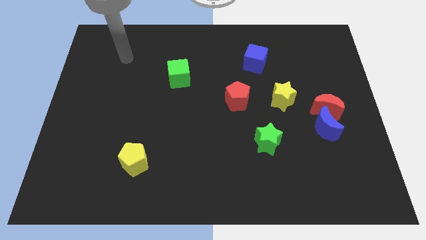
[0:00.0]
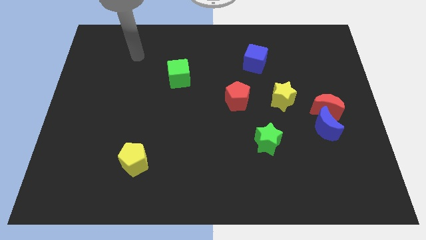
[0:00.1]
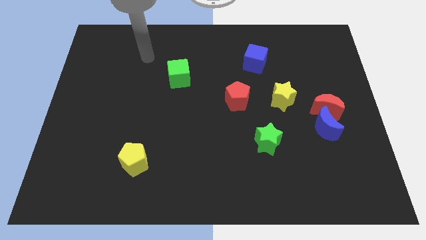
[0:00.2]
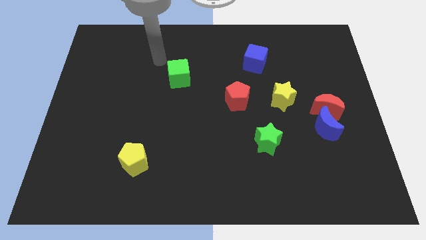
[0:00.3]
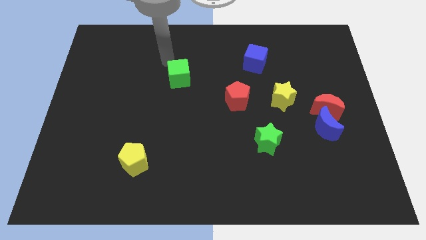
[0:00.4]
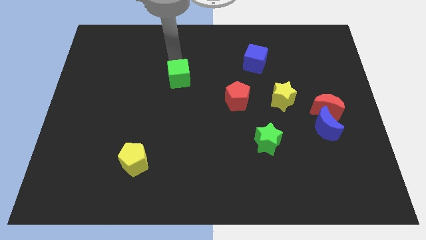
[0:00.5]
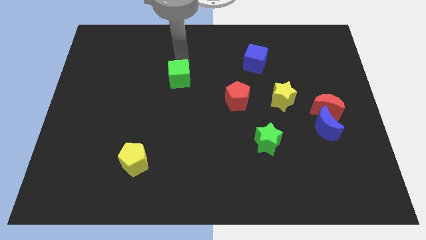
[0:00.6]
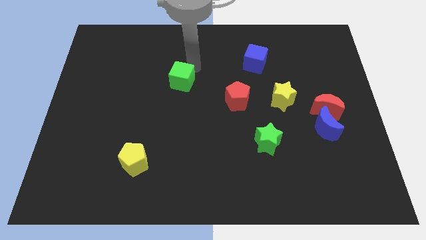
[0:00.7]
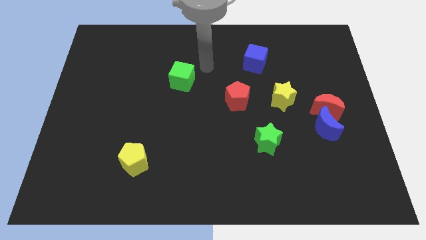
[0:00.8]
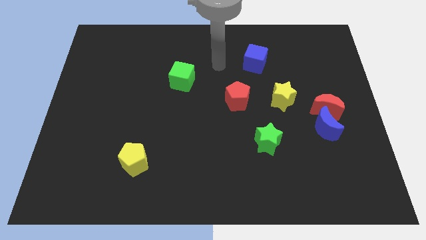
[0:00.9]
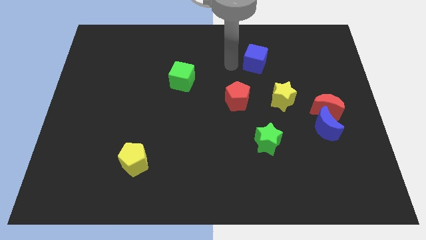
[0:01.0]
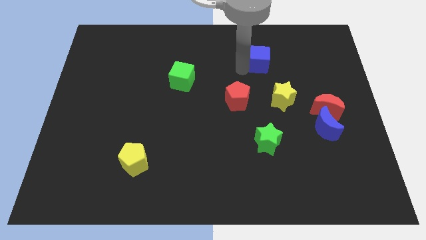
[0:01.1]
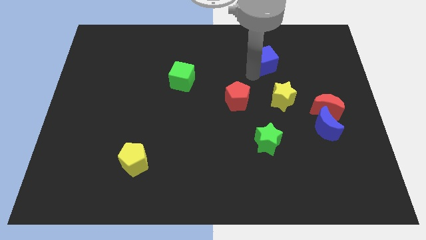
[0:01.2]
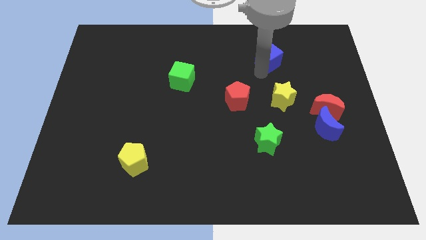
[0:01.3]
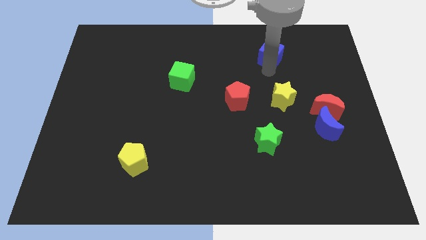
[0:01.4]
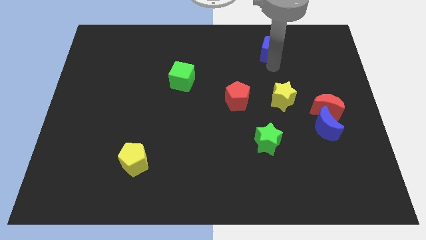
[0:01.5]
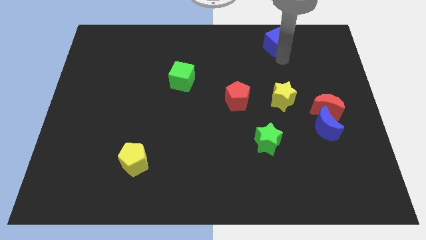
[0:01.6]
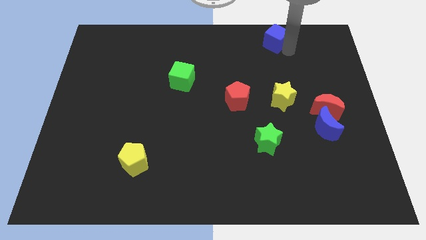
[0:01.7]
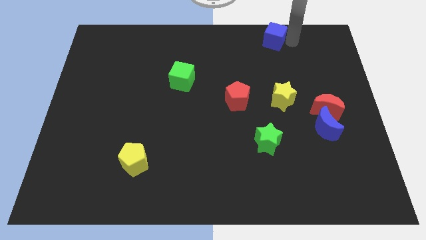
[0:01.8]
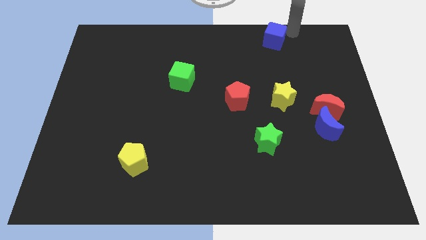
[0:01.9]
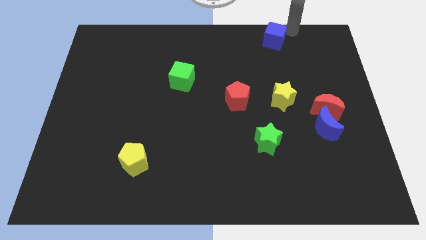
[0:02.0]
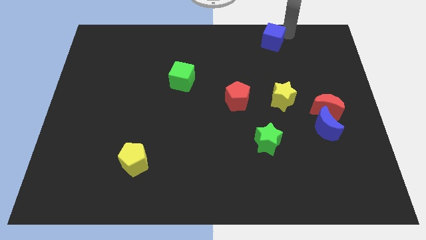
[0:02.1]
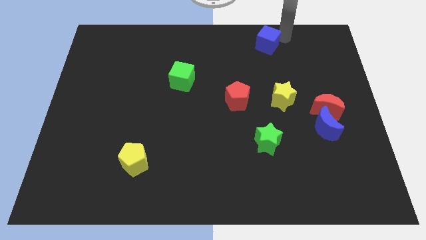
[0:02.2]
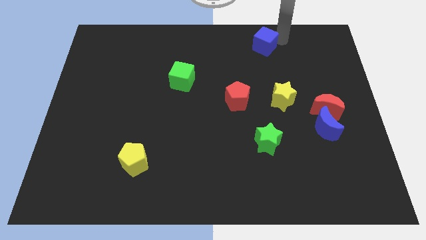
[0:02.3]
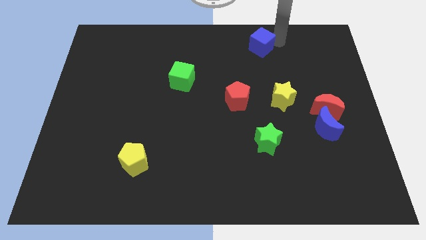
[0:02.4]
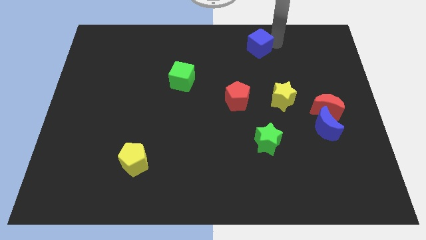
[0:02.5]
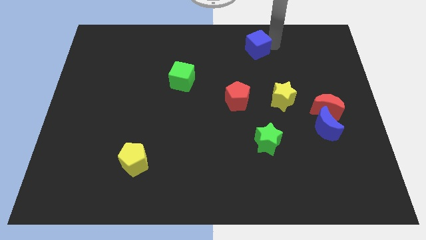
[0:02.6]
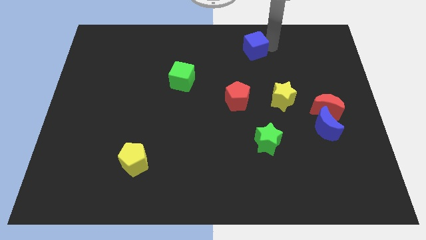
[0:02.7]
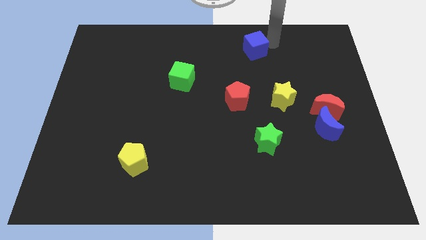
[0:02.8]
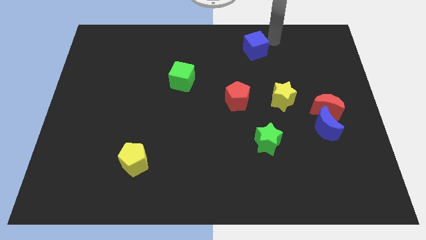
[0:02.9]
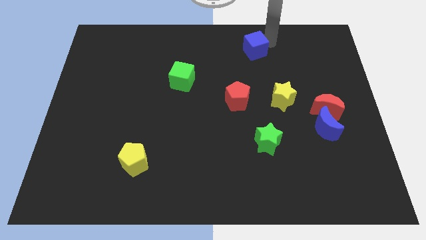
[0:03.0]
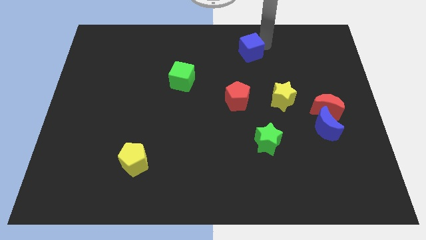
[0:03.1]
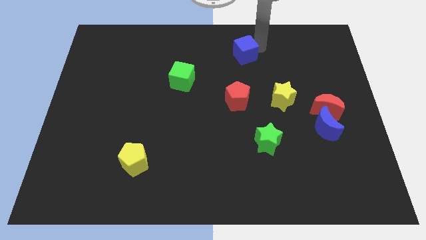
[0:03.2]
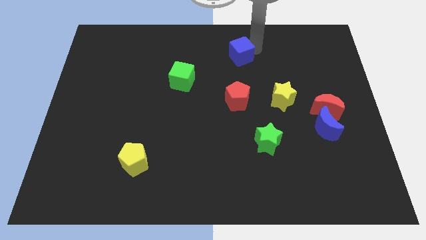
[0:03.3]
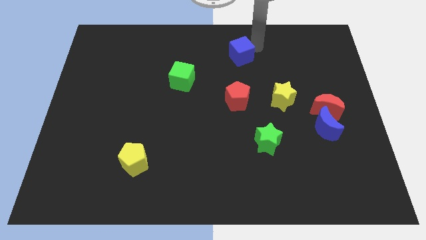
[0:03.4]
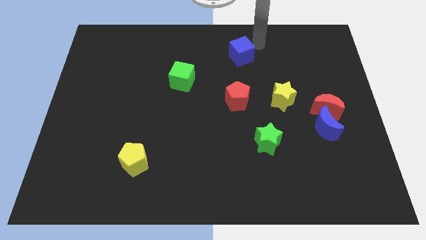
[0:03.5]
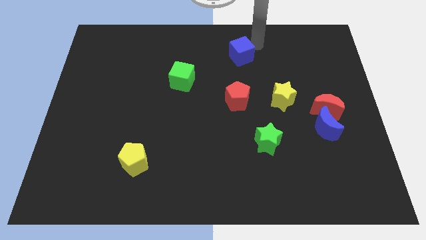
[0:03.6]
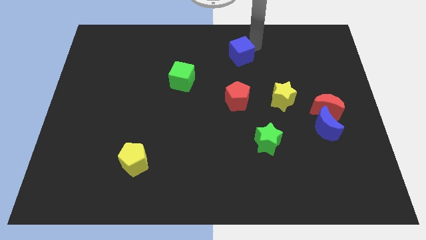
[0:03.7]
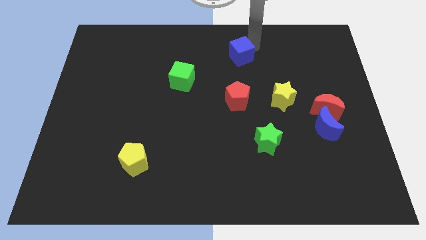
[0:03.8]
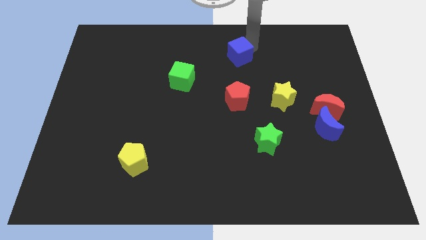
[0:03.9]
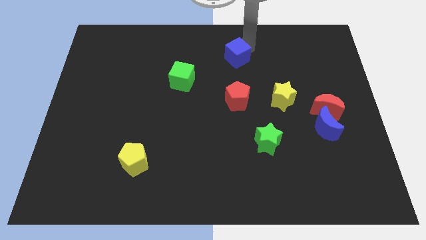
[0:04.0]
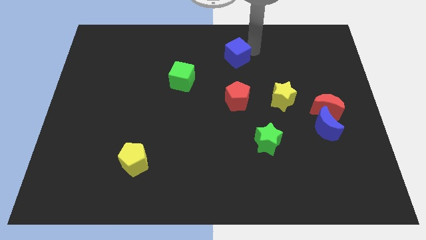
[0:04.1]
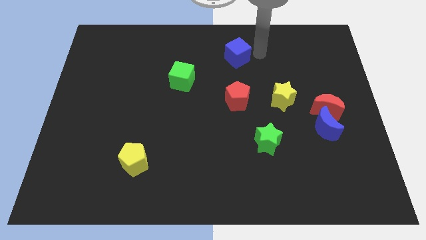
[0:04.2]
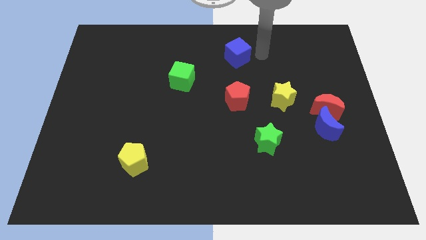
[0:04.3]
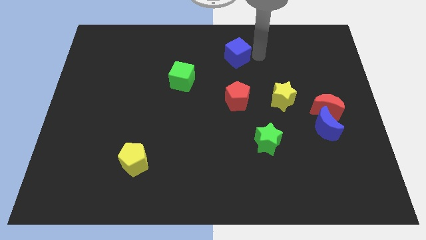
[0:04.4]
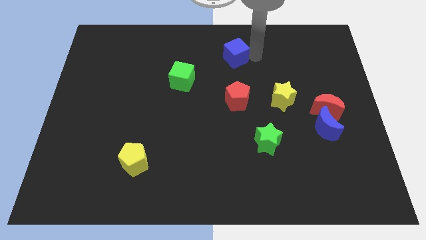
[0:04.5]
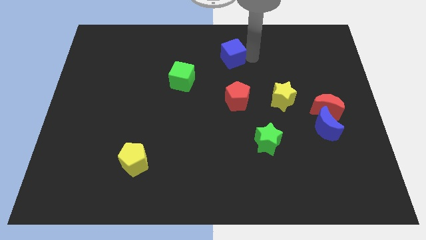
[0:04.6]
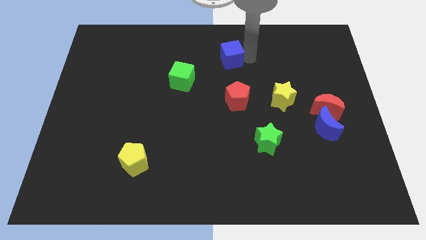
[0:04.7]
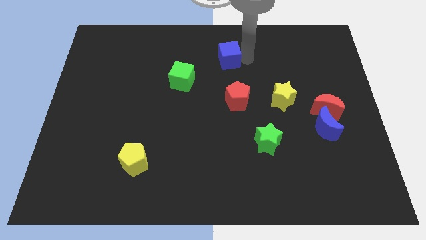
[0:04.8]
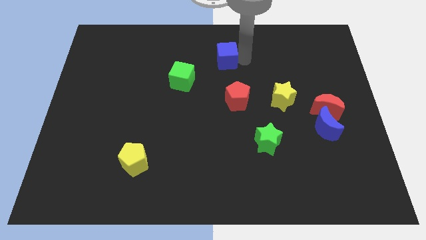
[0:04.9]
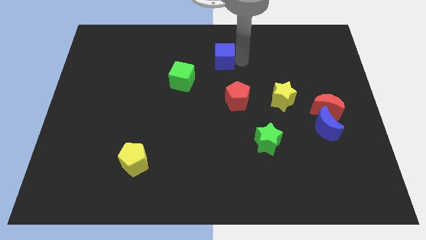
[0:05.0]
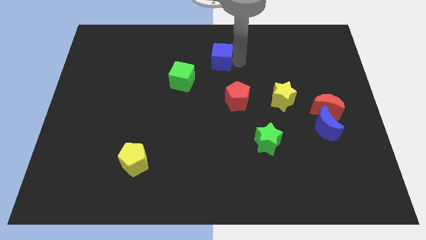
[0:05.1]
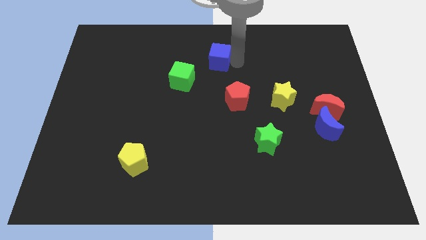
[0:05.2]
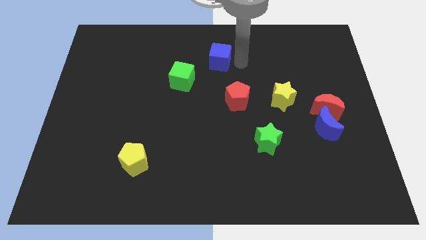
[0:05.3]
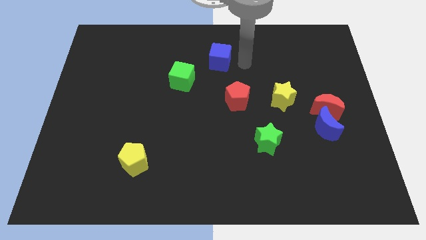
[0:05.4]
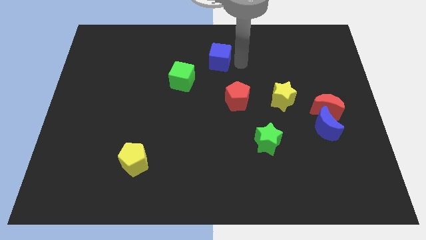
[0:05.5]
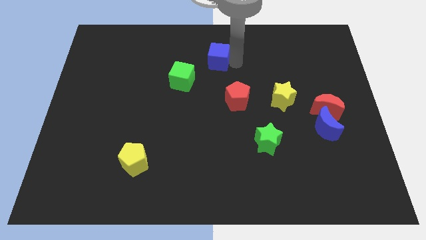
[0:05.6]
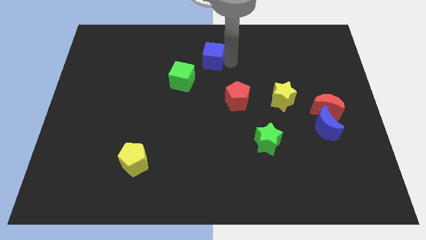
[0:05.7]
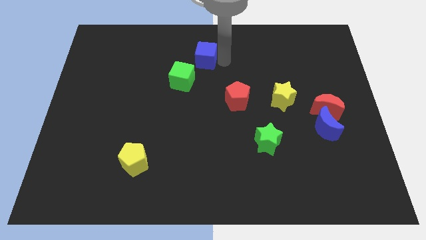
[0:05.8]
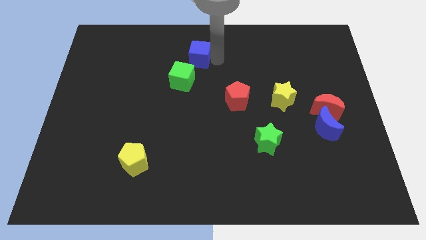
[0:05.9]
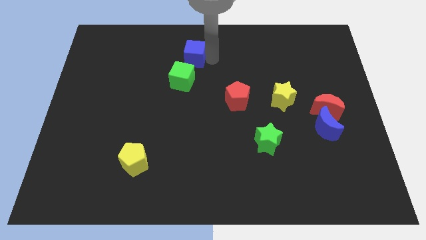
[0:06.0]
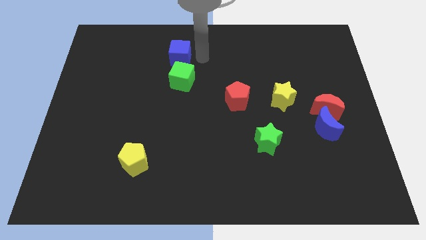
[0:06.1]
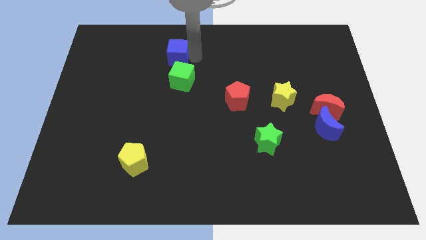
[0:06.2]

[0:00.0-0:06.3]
slide the blue cube to the left

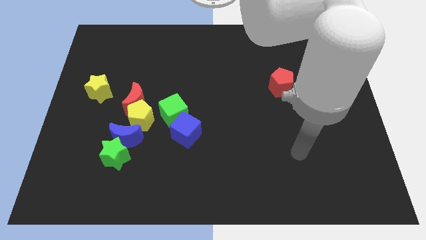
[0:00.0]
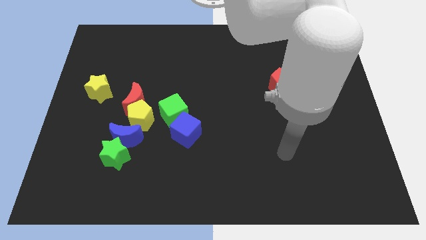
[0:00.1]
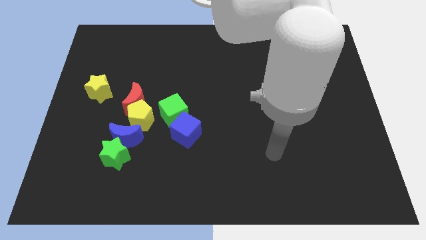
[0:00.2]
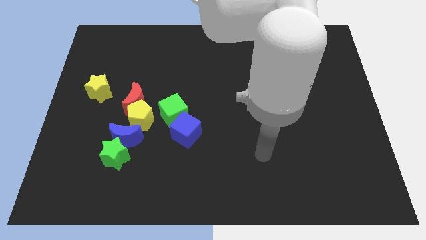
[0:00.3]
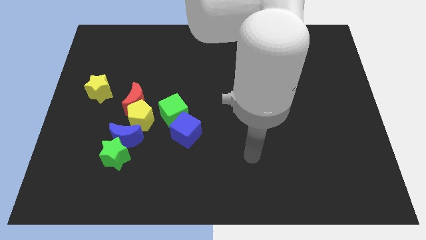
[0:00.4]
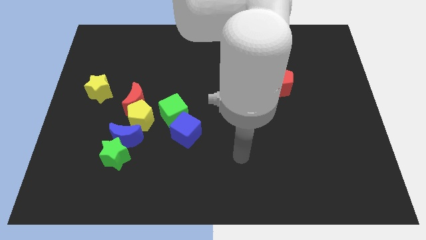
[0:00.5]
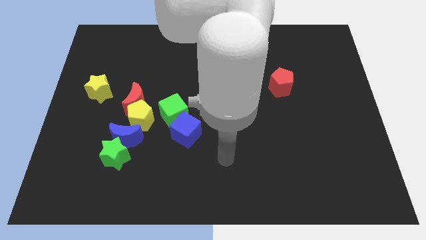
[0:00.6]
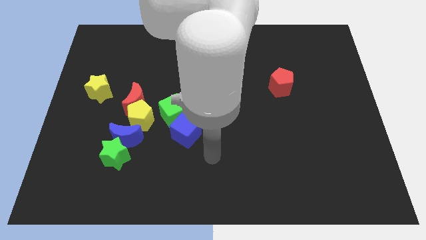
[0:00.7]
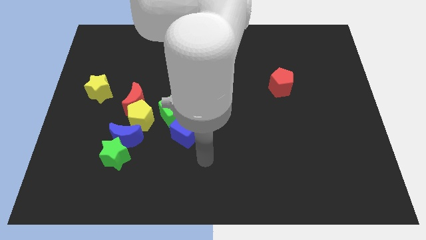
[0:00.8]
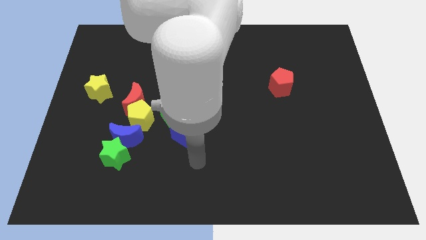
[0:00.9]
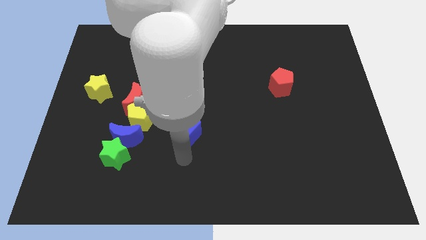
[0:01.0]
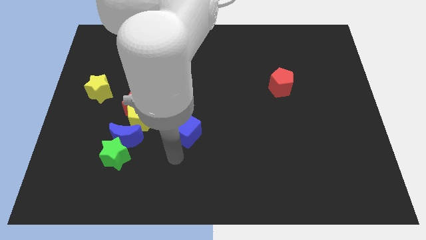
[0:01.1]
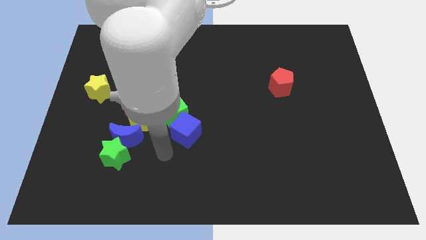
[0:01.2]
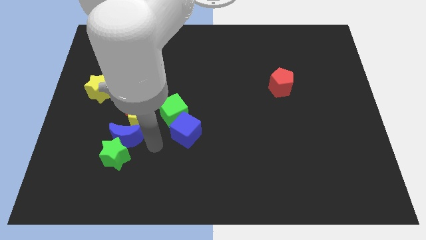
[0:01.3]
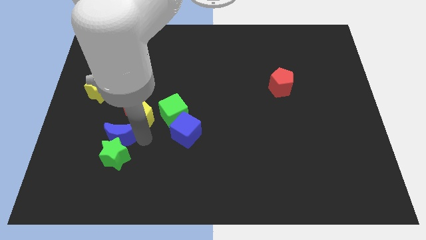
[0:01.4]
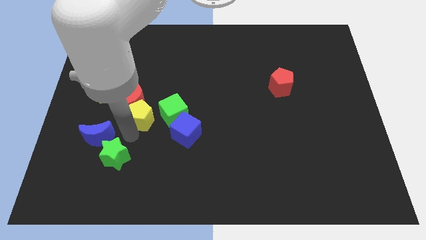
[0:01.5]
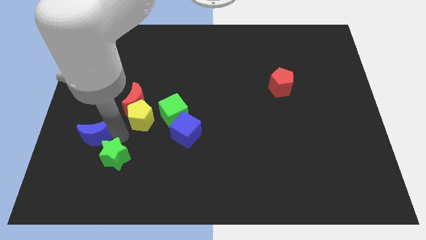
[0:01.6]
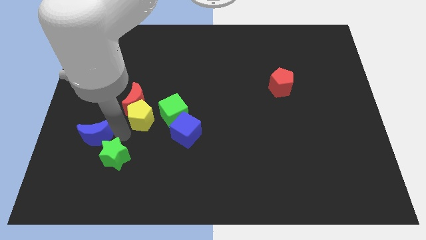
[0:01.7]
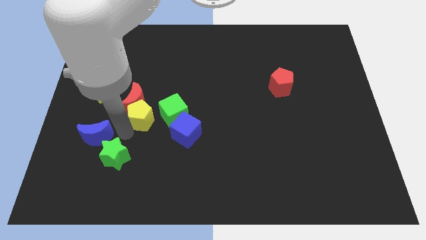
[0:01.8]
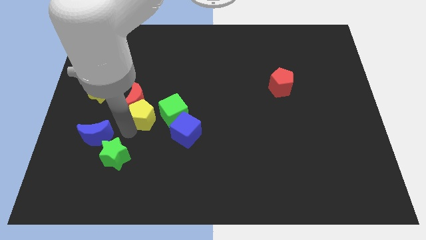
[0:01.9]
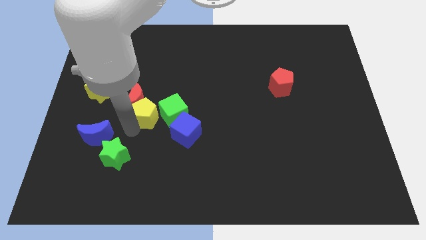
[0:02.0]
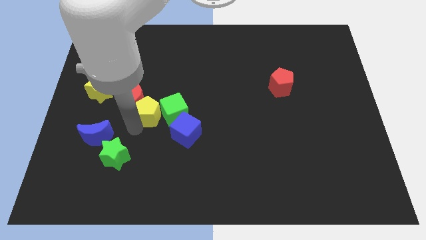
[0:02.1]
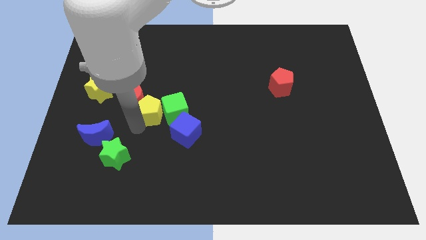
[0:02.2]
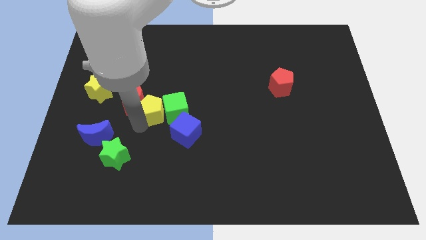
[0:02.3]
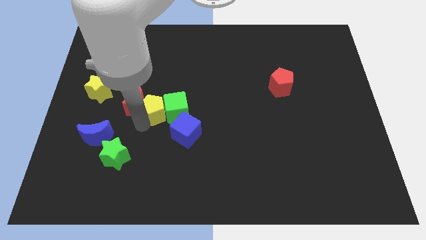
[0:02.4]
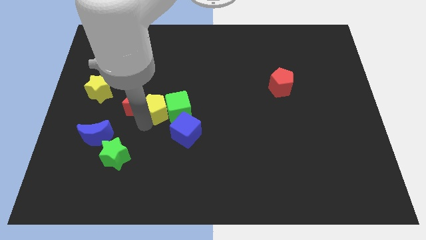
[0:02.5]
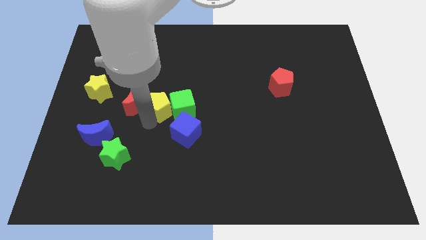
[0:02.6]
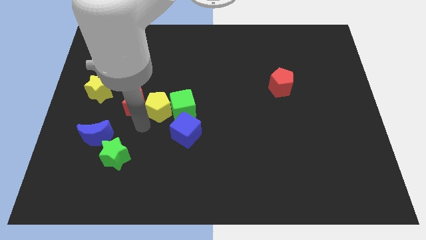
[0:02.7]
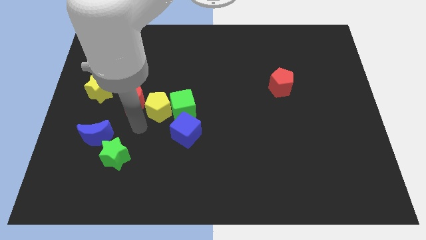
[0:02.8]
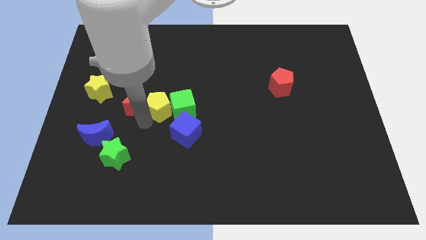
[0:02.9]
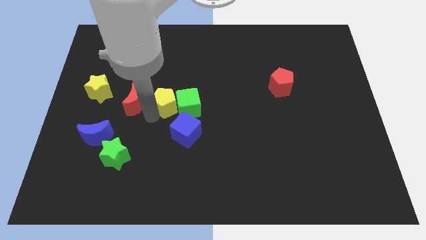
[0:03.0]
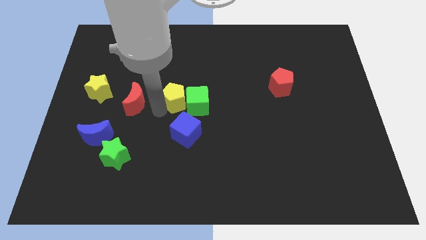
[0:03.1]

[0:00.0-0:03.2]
move the yellow pentagon a bit diagonally up and right
